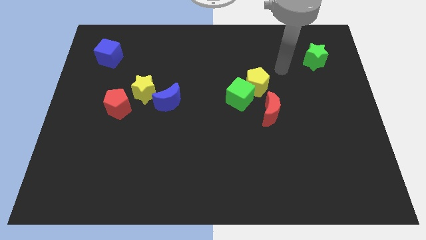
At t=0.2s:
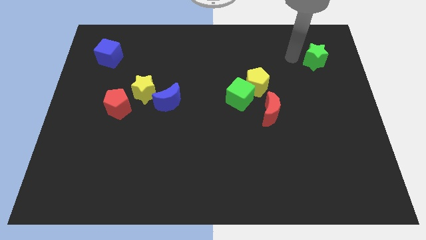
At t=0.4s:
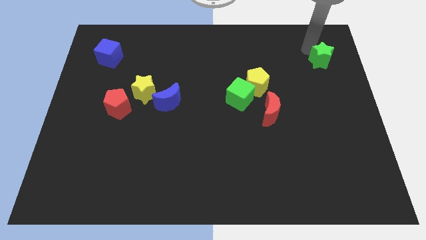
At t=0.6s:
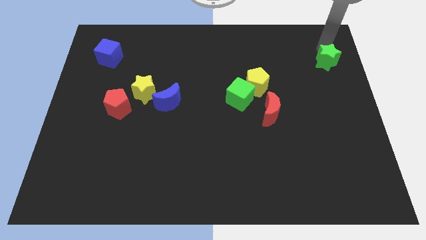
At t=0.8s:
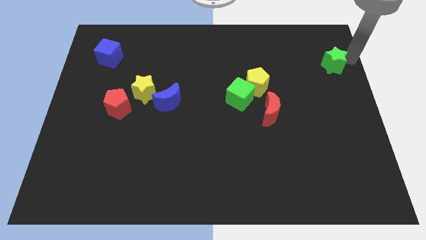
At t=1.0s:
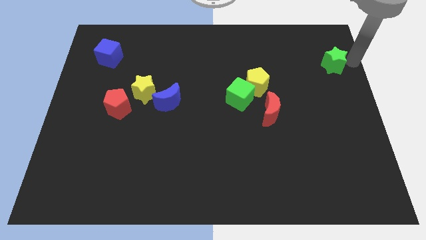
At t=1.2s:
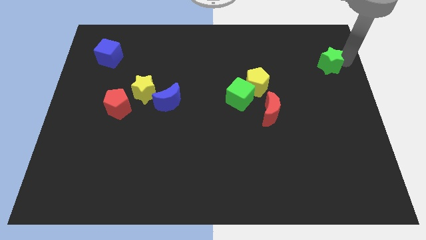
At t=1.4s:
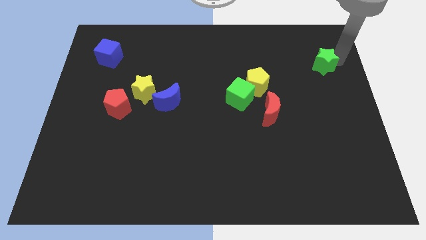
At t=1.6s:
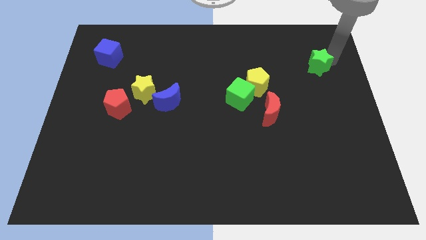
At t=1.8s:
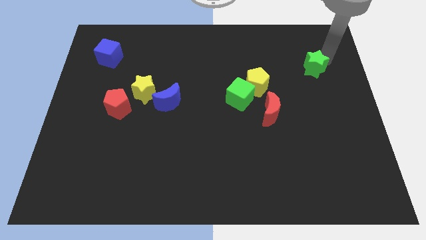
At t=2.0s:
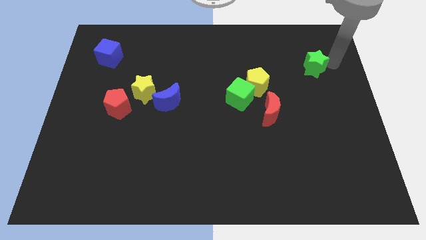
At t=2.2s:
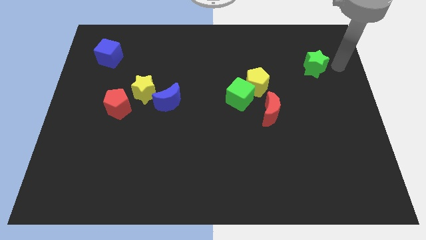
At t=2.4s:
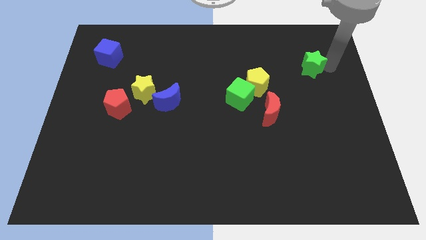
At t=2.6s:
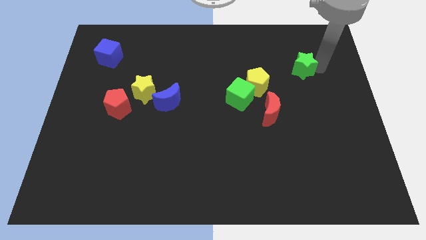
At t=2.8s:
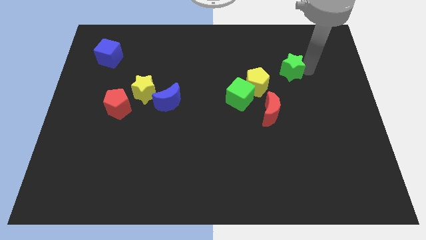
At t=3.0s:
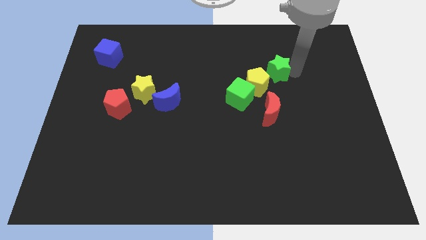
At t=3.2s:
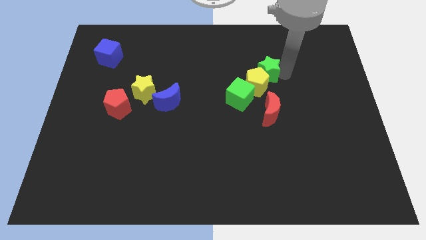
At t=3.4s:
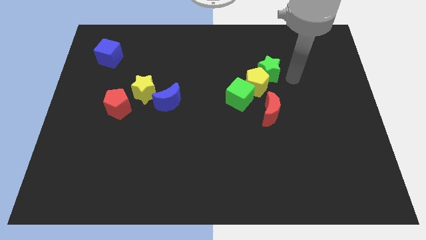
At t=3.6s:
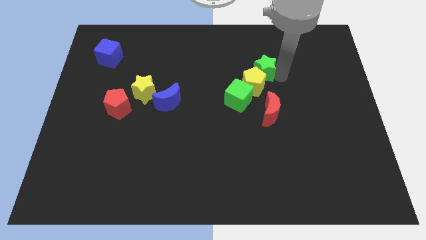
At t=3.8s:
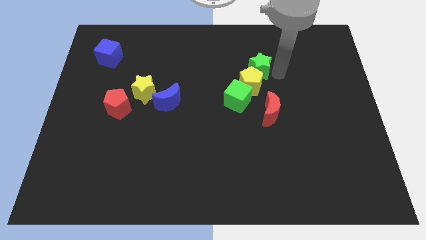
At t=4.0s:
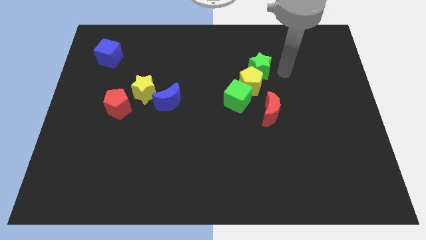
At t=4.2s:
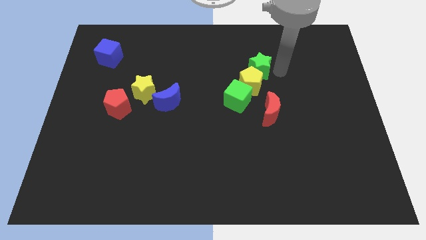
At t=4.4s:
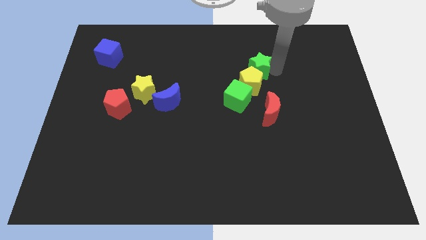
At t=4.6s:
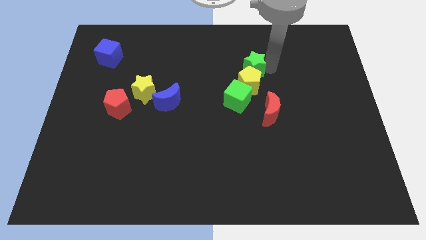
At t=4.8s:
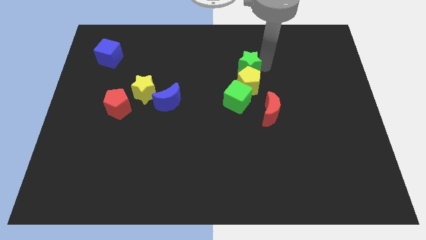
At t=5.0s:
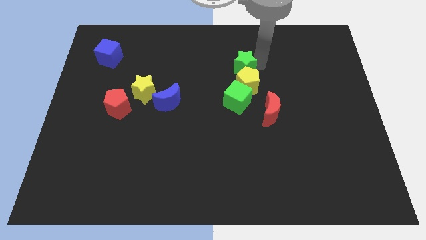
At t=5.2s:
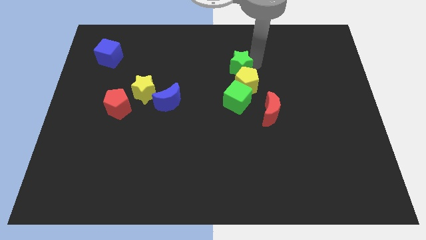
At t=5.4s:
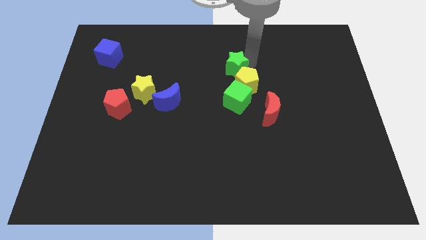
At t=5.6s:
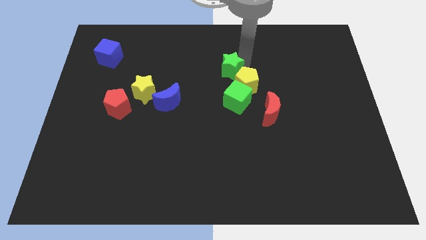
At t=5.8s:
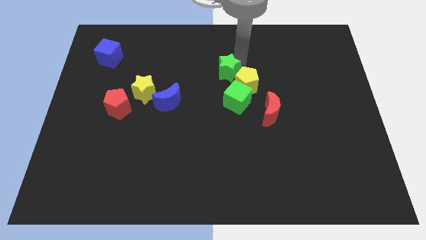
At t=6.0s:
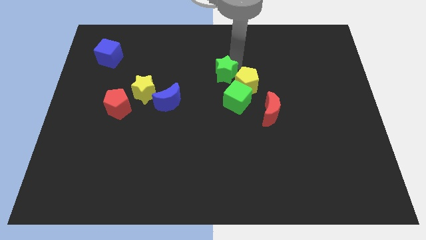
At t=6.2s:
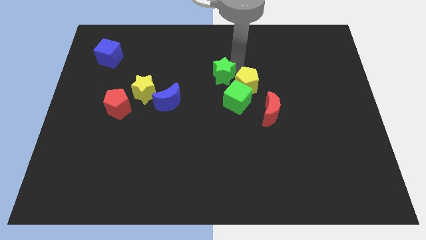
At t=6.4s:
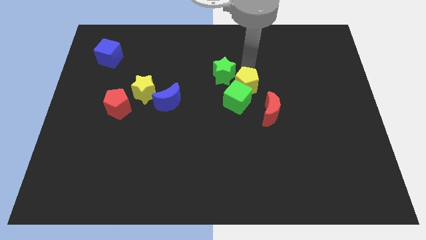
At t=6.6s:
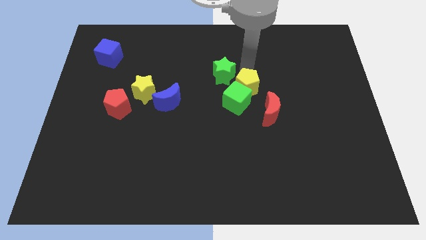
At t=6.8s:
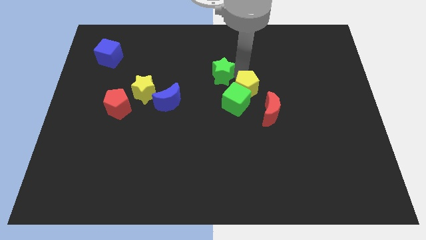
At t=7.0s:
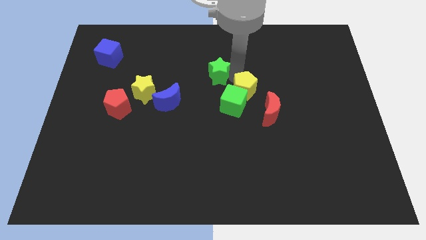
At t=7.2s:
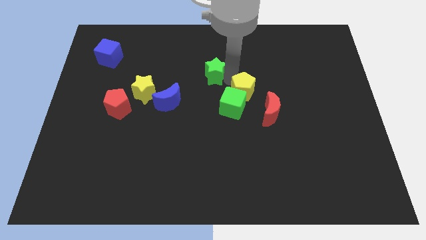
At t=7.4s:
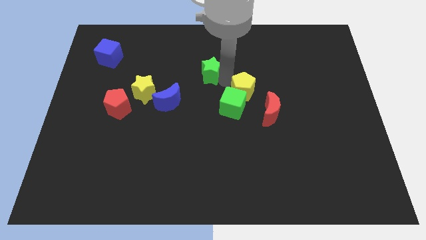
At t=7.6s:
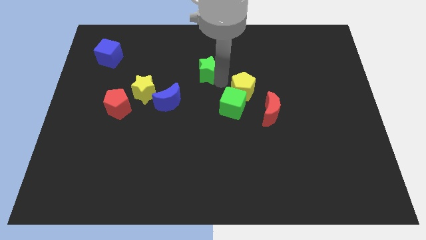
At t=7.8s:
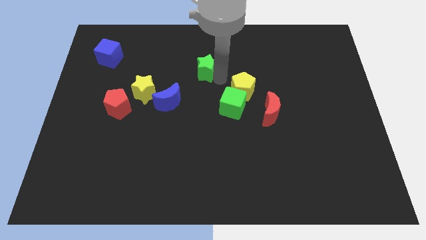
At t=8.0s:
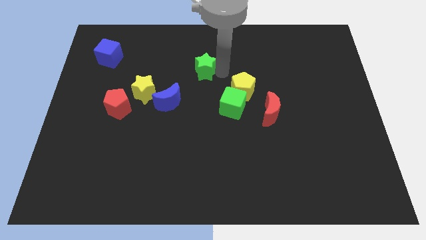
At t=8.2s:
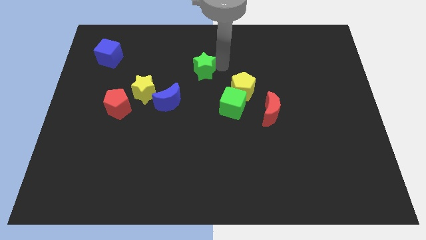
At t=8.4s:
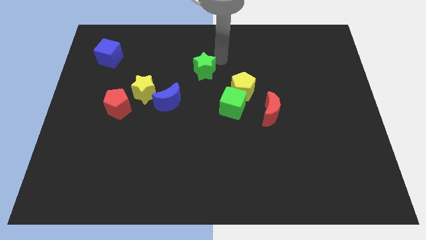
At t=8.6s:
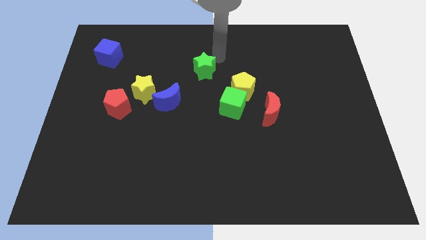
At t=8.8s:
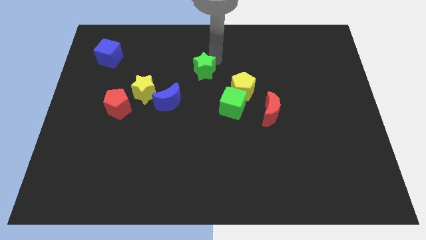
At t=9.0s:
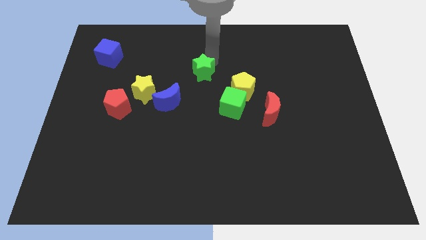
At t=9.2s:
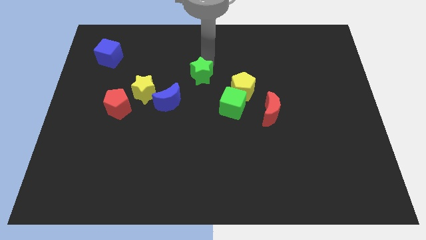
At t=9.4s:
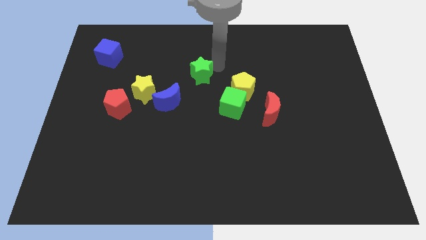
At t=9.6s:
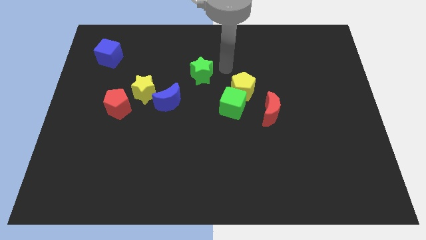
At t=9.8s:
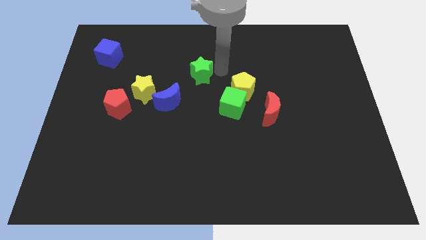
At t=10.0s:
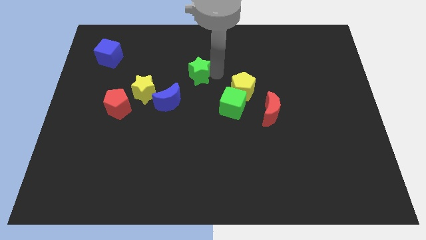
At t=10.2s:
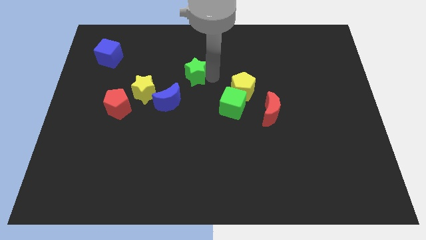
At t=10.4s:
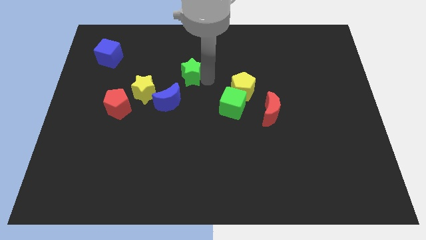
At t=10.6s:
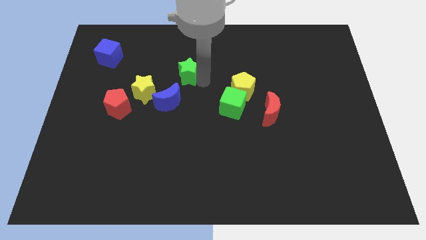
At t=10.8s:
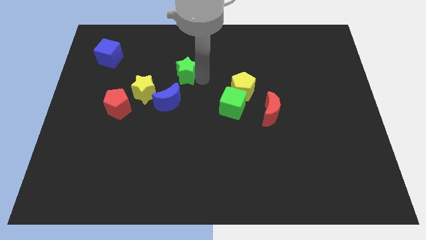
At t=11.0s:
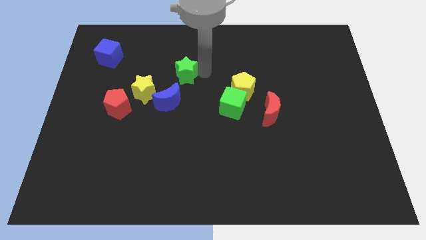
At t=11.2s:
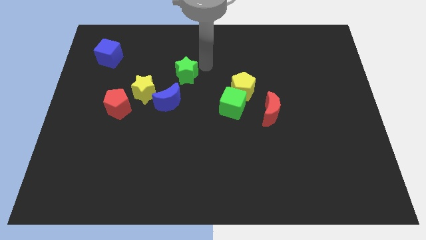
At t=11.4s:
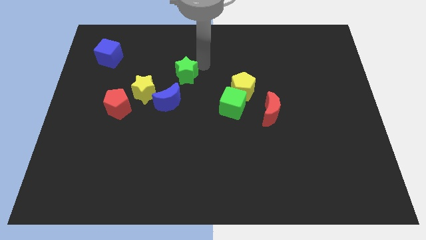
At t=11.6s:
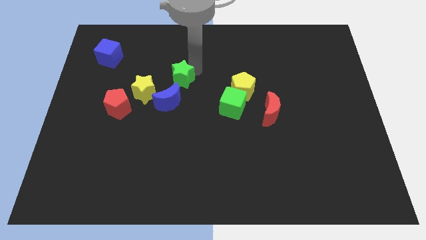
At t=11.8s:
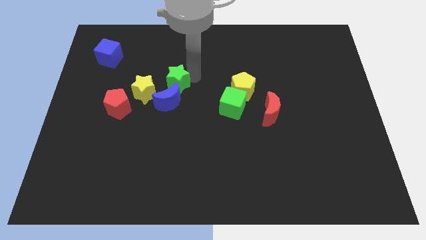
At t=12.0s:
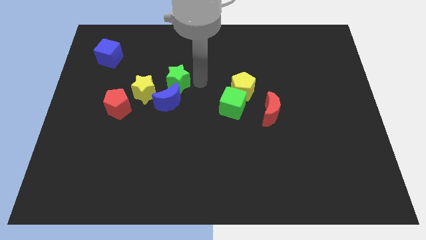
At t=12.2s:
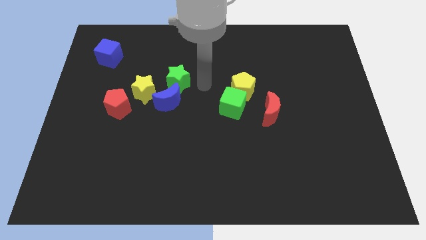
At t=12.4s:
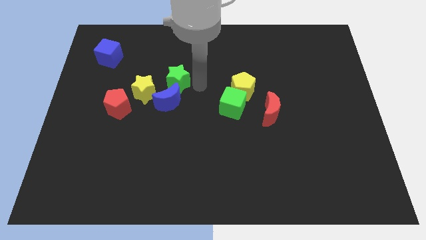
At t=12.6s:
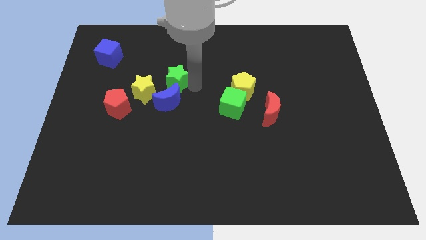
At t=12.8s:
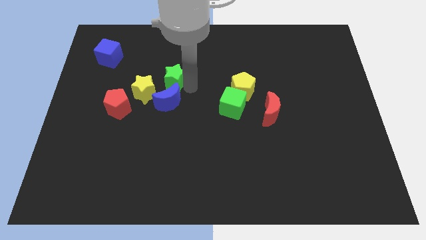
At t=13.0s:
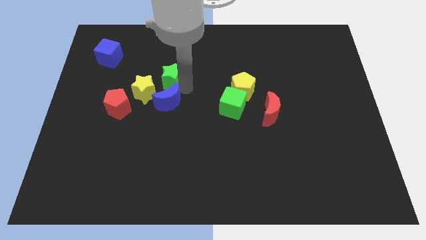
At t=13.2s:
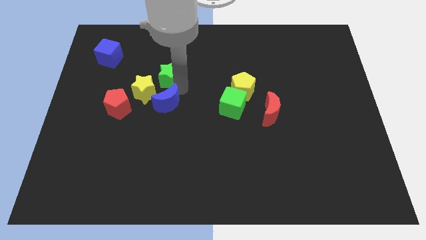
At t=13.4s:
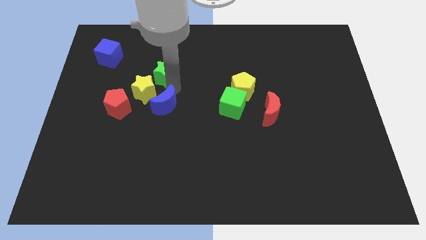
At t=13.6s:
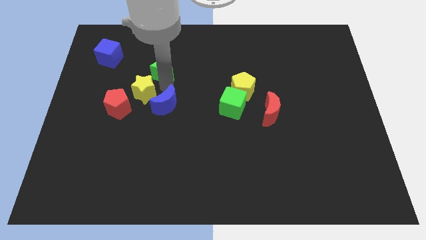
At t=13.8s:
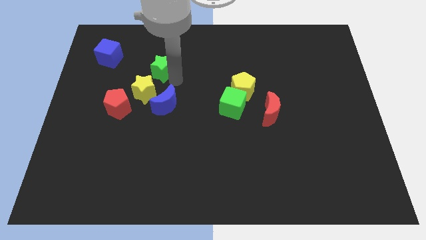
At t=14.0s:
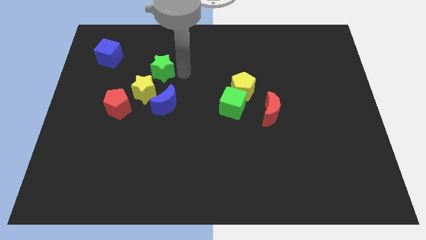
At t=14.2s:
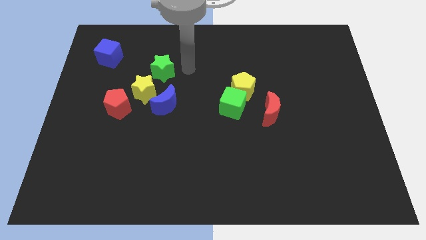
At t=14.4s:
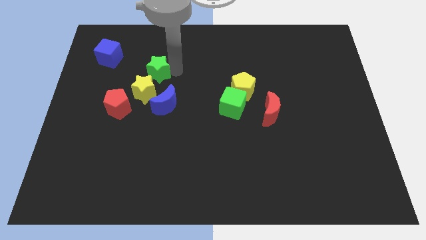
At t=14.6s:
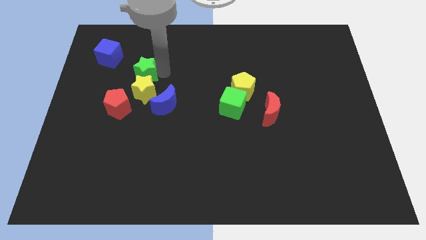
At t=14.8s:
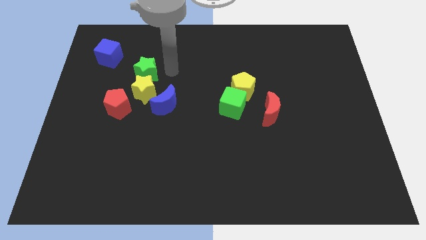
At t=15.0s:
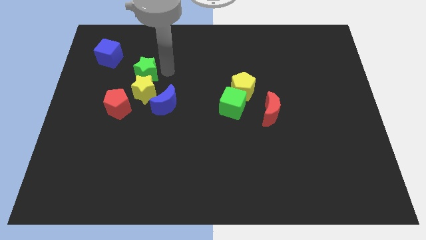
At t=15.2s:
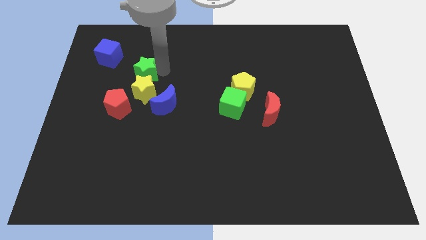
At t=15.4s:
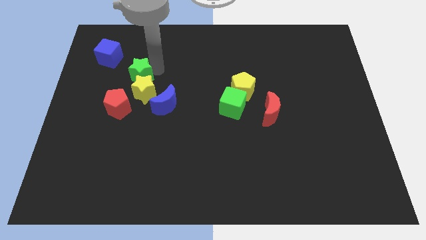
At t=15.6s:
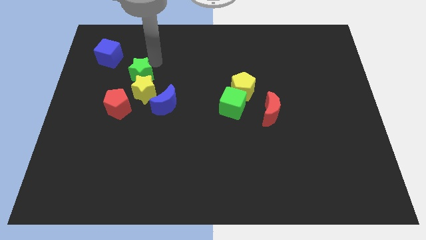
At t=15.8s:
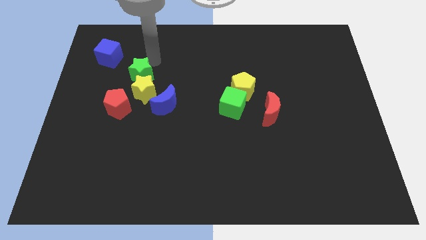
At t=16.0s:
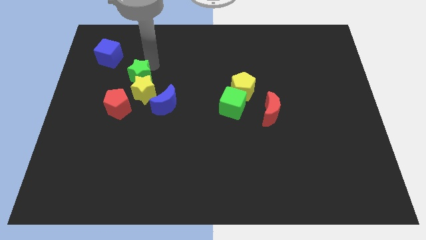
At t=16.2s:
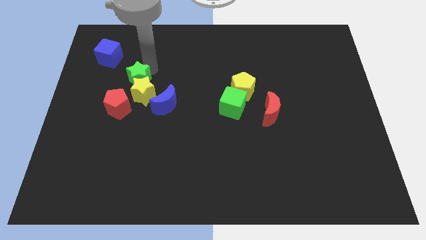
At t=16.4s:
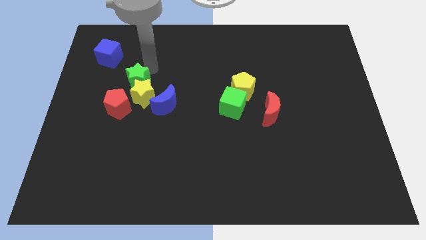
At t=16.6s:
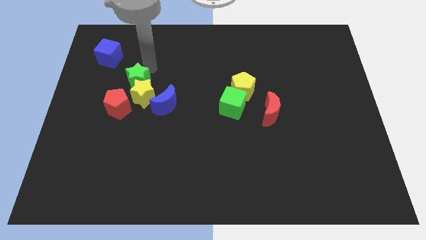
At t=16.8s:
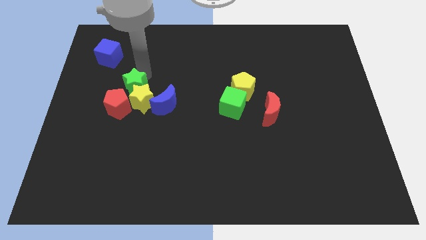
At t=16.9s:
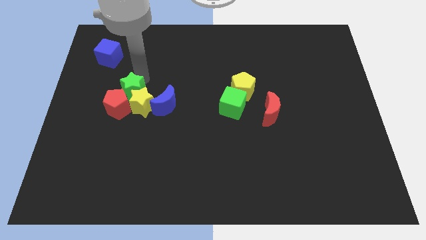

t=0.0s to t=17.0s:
slide the green star towards the red pentagon
